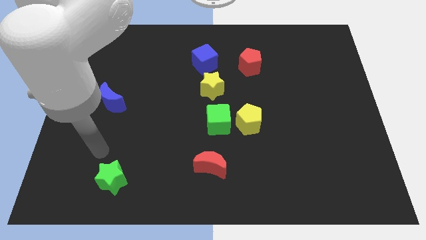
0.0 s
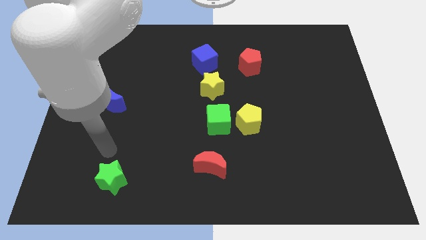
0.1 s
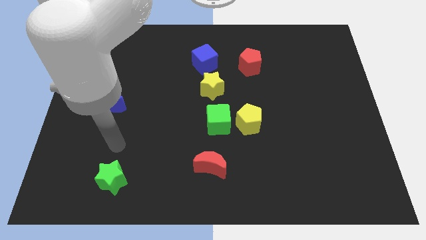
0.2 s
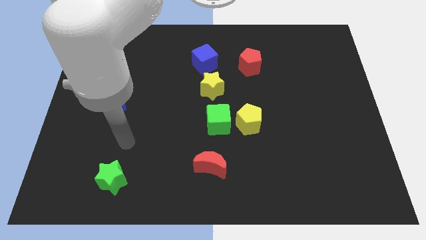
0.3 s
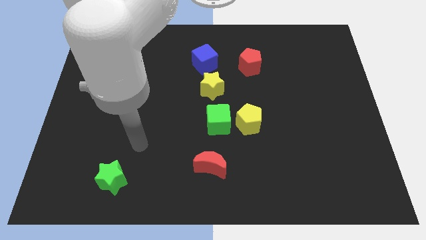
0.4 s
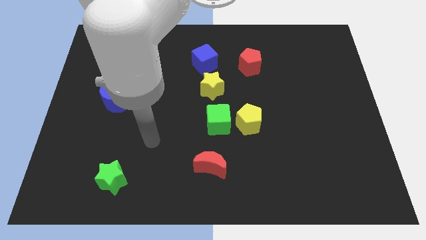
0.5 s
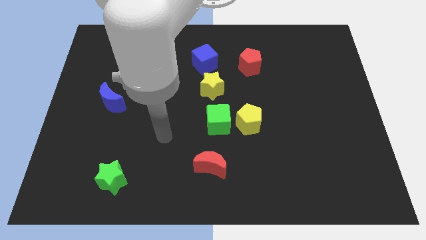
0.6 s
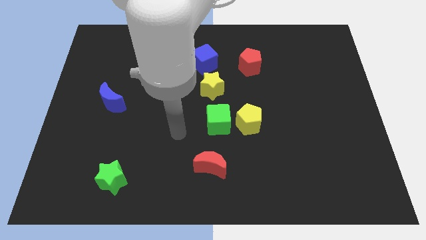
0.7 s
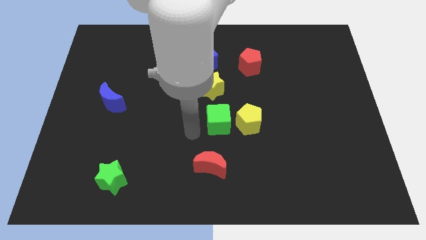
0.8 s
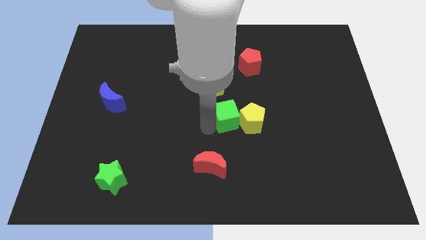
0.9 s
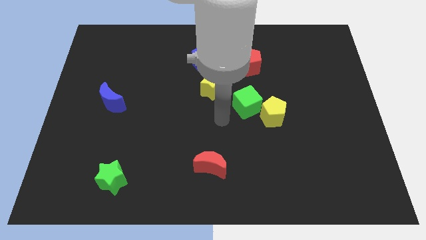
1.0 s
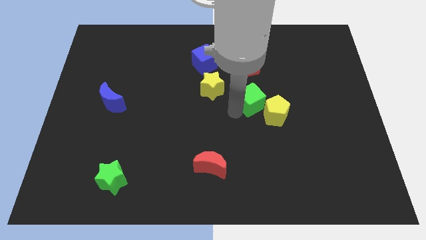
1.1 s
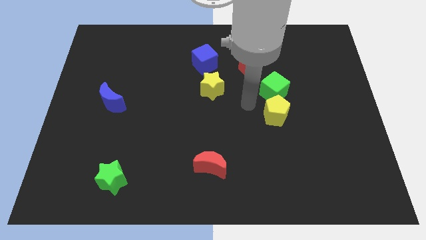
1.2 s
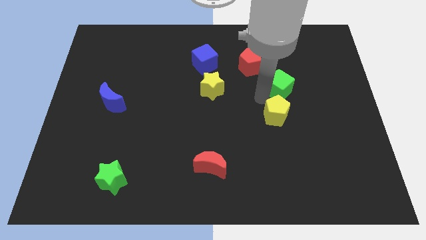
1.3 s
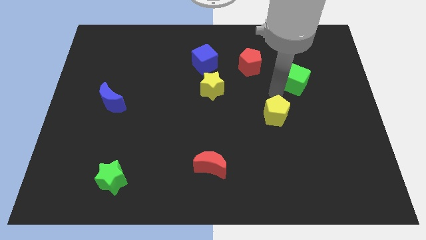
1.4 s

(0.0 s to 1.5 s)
separate the yellow pentagon from the green cube

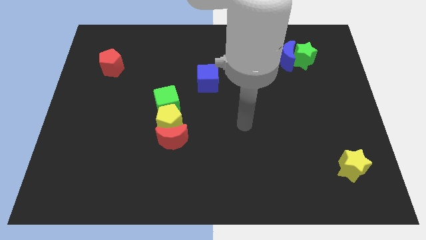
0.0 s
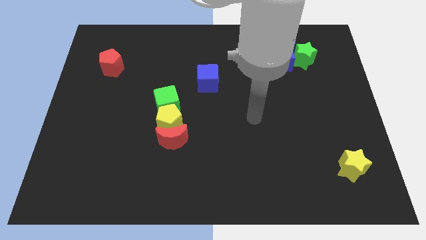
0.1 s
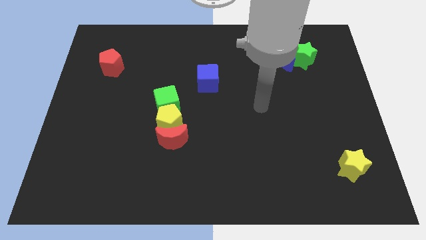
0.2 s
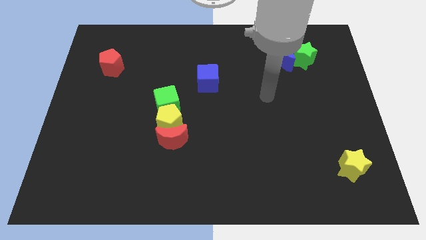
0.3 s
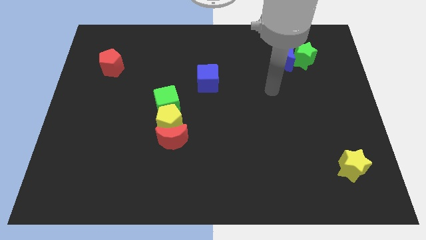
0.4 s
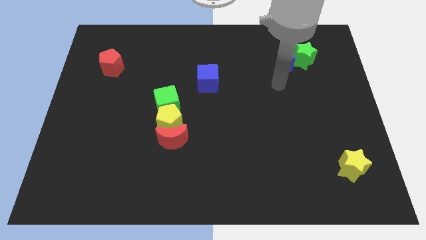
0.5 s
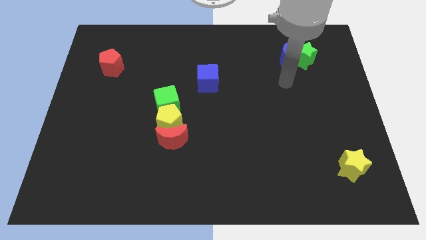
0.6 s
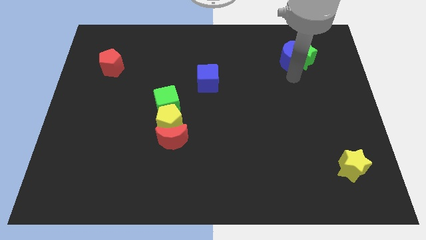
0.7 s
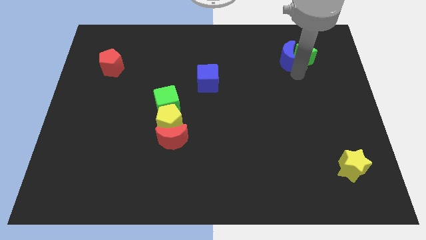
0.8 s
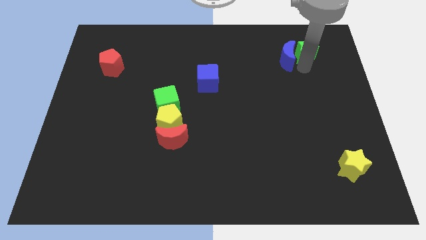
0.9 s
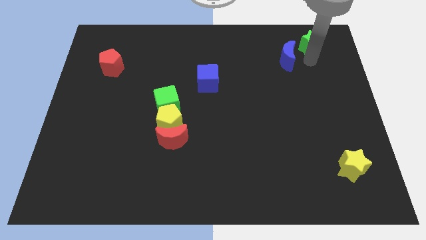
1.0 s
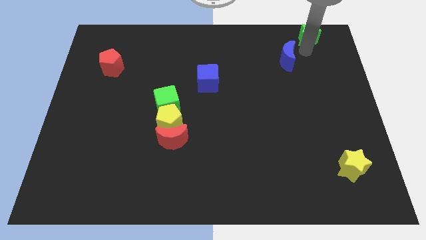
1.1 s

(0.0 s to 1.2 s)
move the blue moon away from the green star

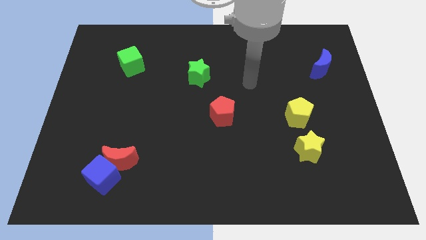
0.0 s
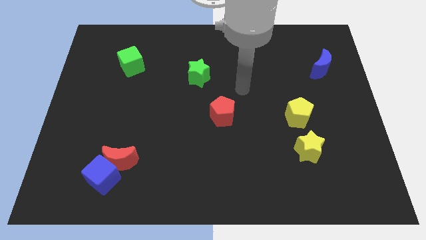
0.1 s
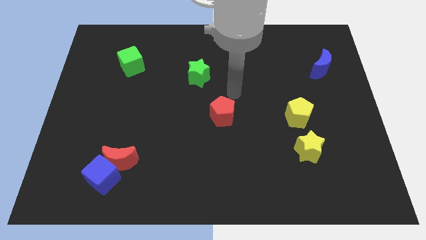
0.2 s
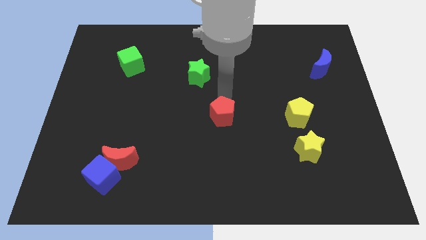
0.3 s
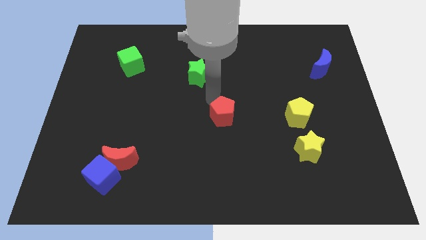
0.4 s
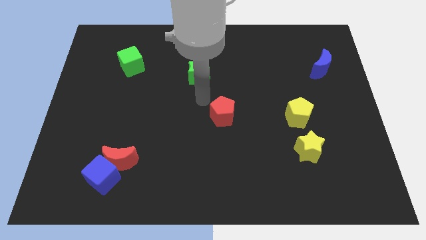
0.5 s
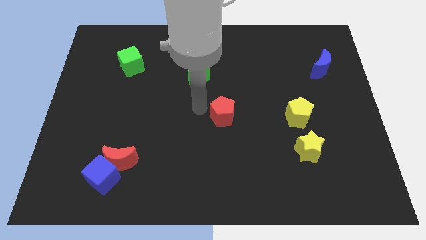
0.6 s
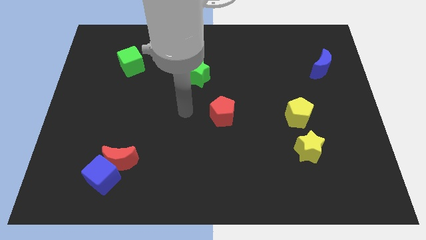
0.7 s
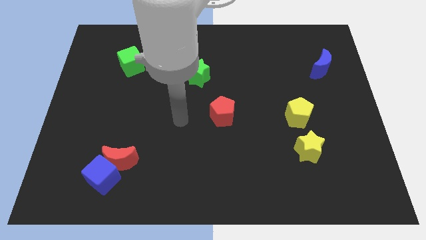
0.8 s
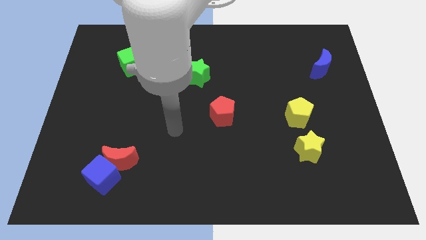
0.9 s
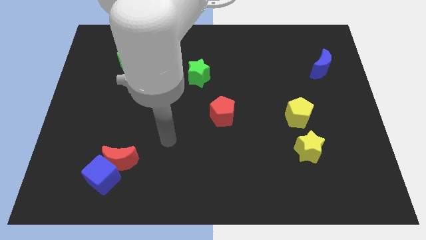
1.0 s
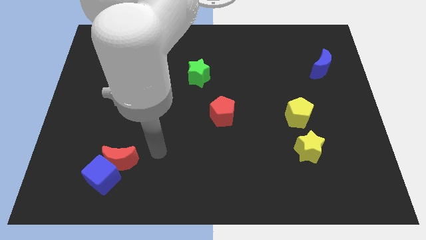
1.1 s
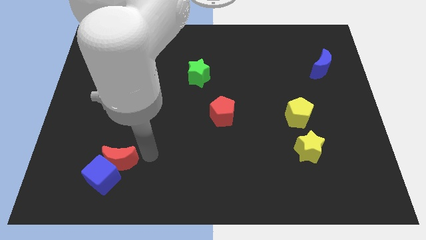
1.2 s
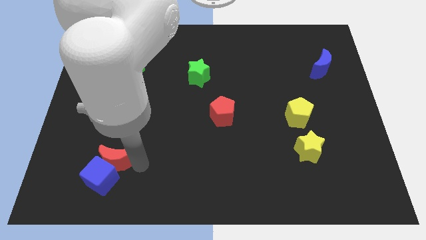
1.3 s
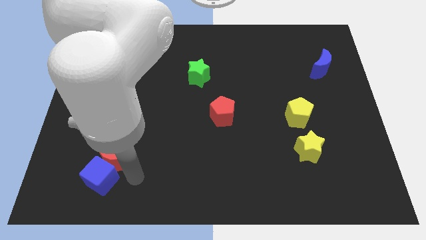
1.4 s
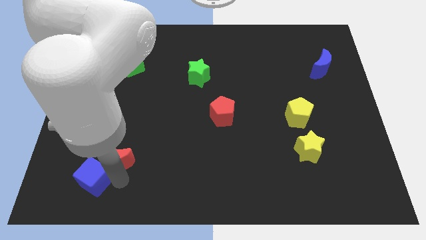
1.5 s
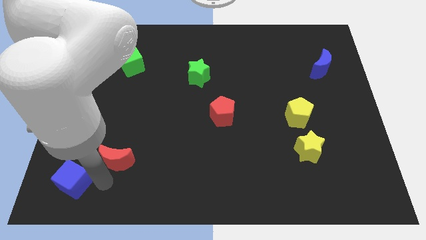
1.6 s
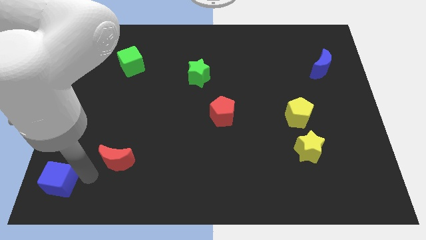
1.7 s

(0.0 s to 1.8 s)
separate the red moon from the blue cube

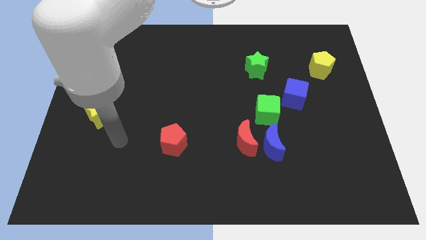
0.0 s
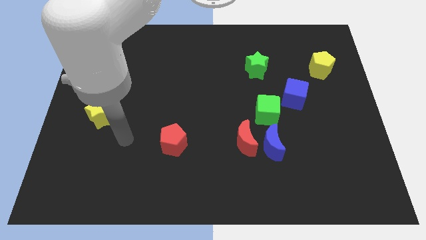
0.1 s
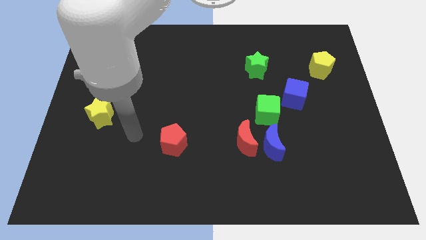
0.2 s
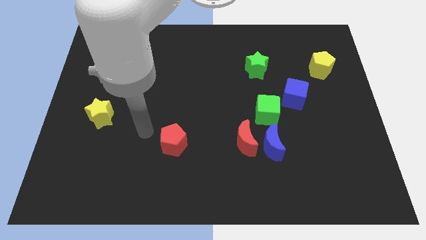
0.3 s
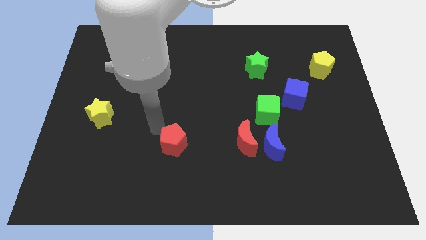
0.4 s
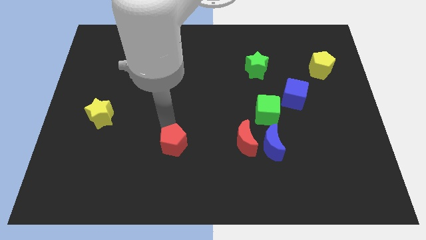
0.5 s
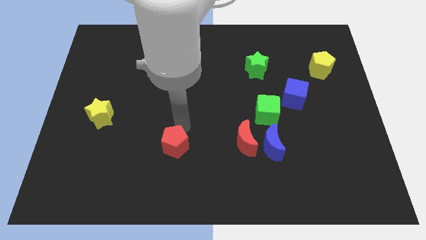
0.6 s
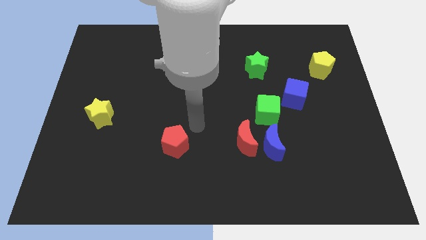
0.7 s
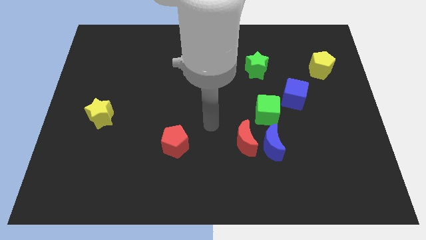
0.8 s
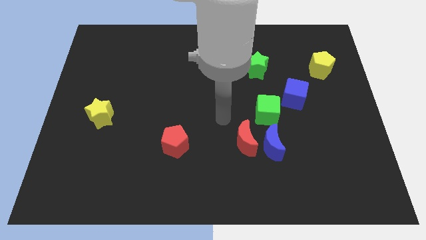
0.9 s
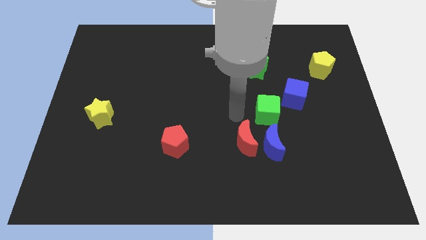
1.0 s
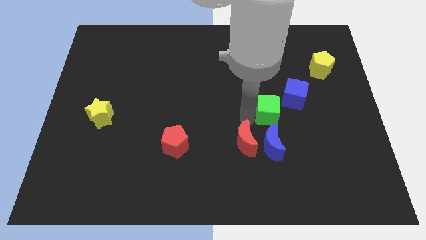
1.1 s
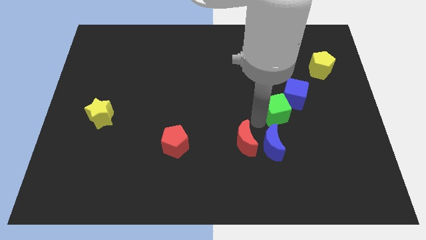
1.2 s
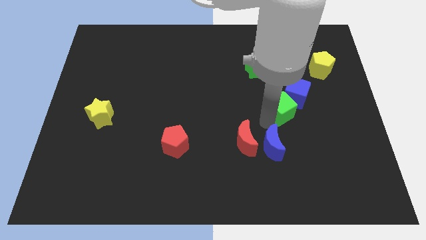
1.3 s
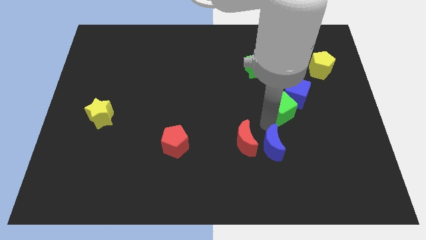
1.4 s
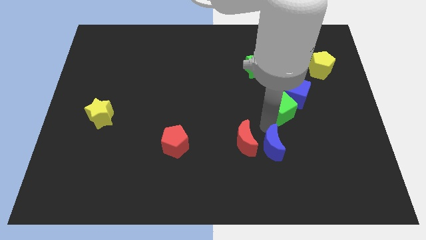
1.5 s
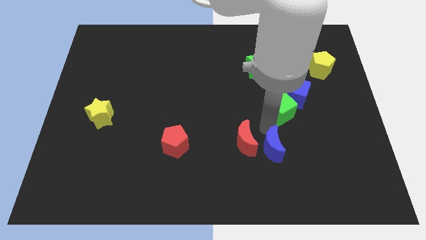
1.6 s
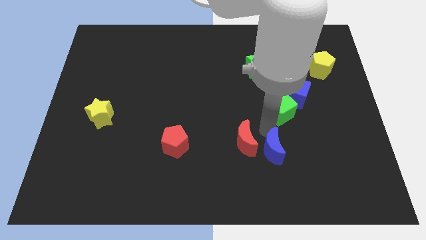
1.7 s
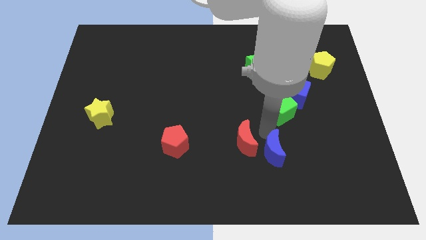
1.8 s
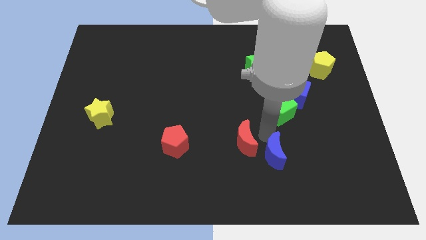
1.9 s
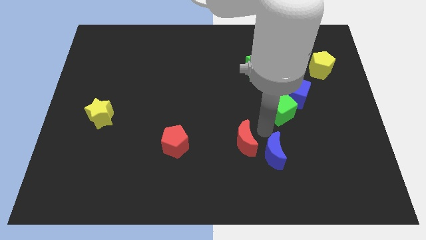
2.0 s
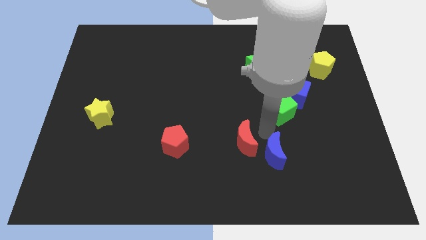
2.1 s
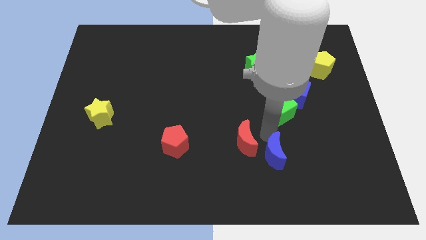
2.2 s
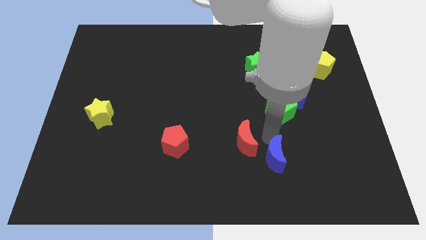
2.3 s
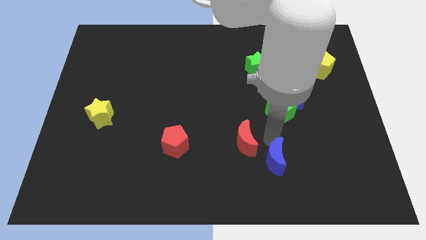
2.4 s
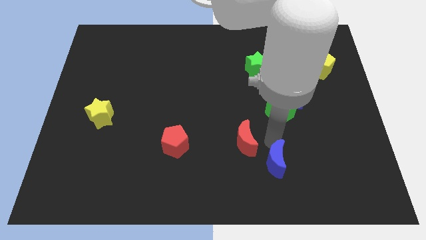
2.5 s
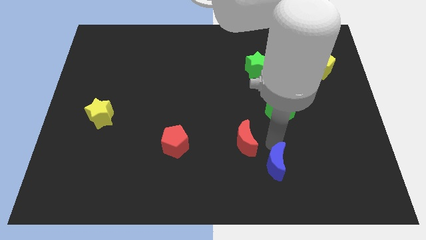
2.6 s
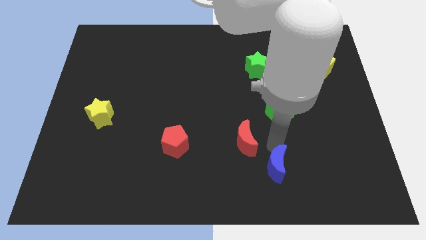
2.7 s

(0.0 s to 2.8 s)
move the blue moon away from the red moon and green cube

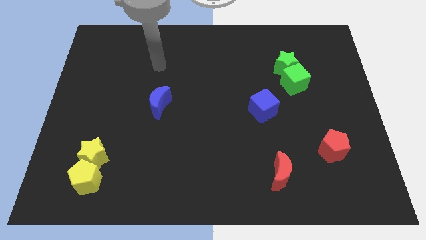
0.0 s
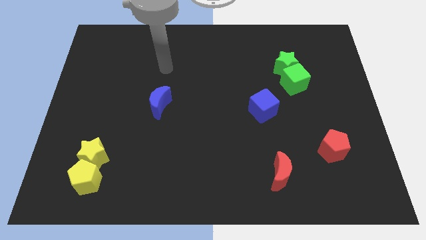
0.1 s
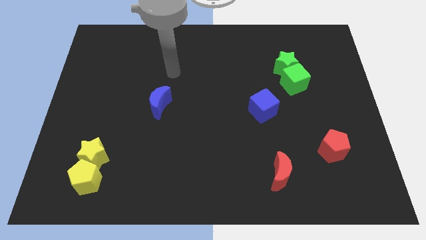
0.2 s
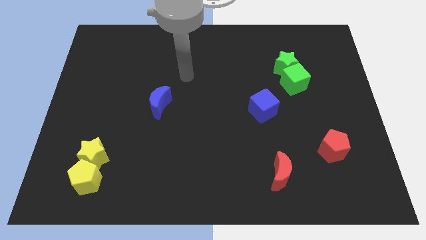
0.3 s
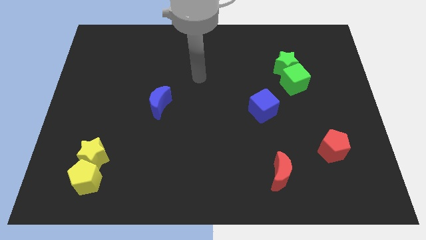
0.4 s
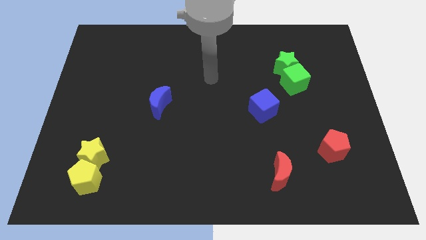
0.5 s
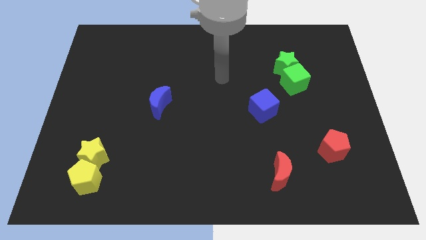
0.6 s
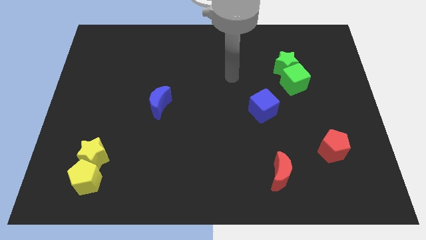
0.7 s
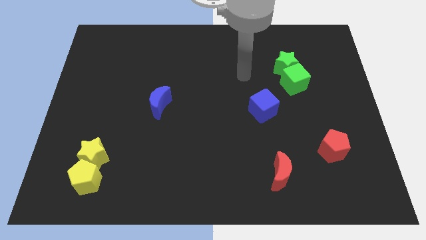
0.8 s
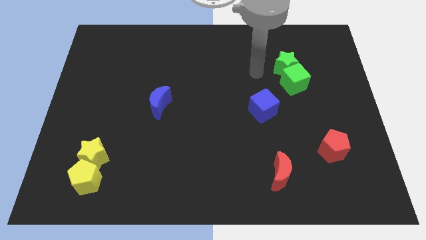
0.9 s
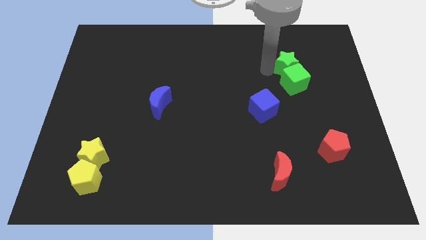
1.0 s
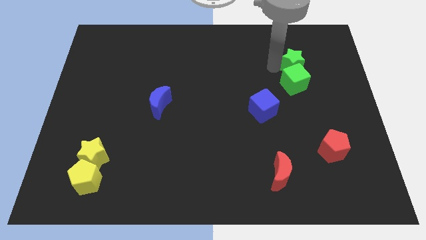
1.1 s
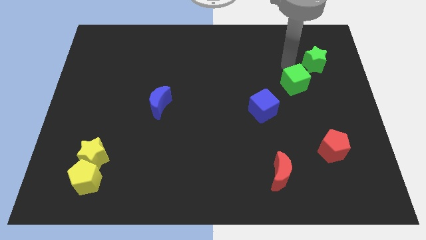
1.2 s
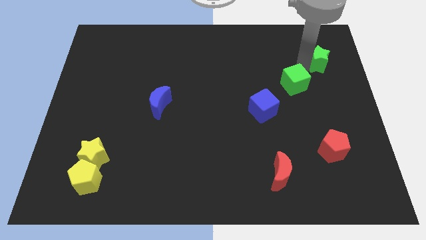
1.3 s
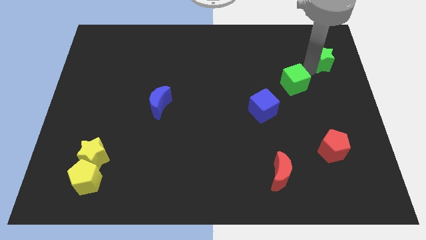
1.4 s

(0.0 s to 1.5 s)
separate the green cube from the green star

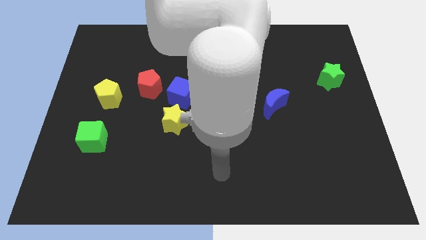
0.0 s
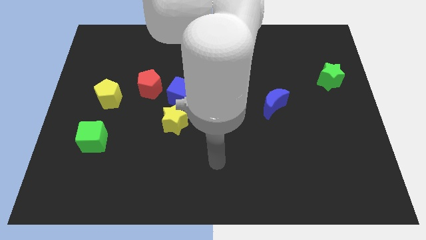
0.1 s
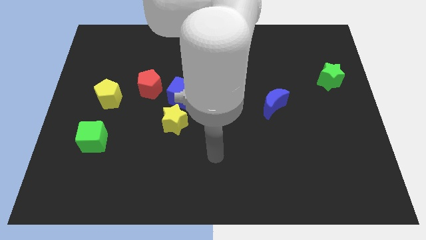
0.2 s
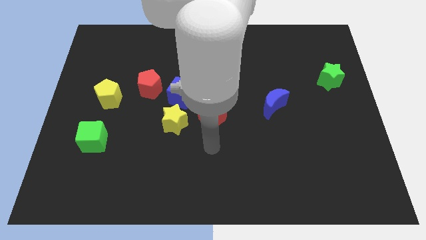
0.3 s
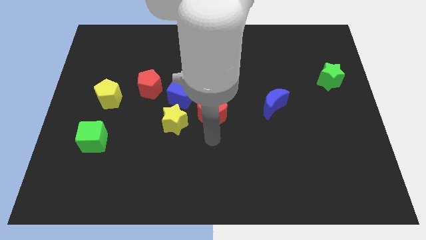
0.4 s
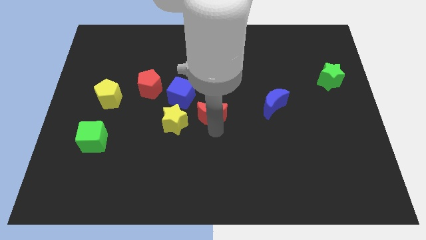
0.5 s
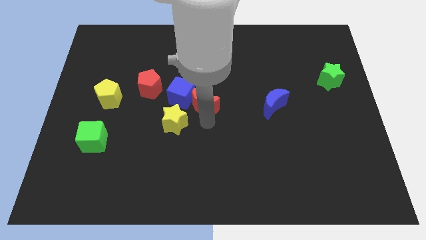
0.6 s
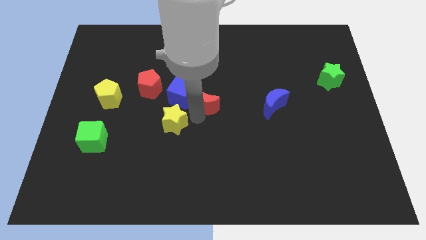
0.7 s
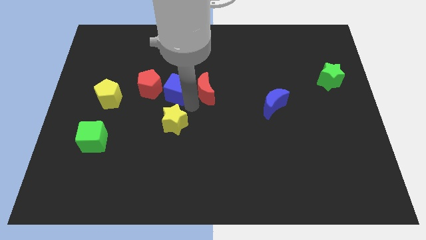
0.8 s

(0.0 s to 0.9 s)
separate the yellow star from the blue cube and red moon
